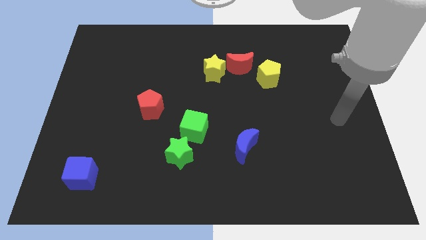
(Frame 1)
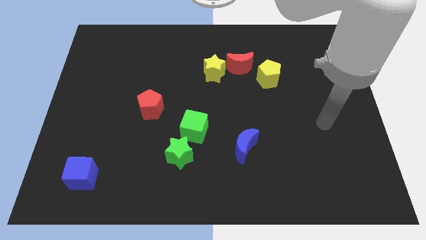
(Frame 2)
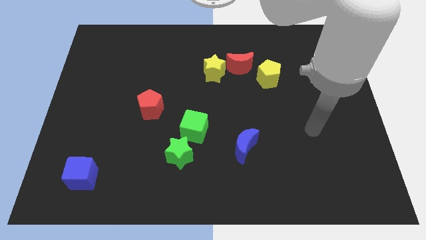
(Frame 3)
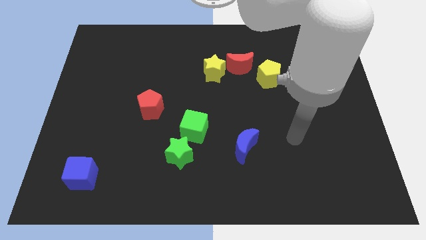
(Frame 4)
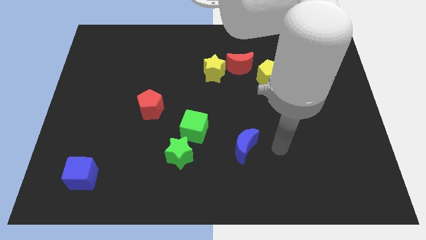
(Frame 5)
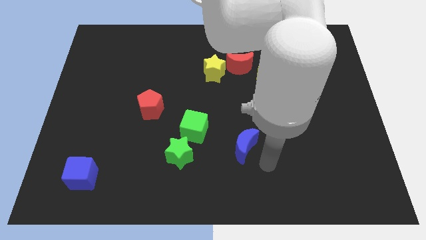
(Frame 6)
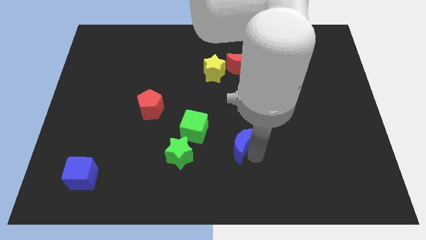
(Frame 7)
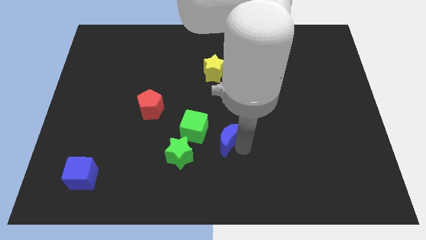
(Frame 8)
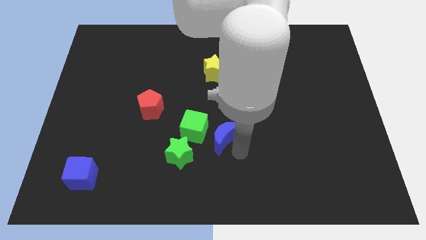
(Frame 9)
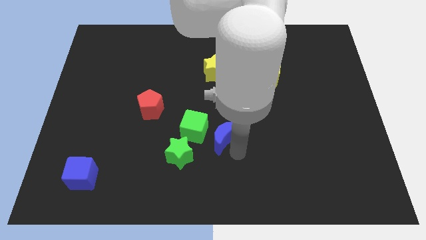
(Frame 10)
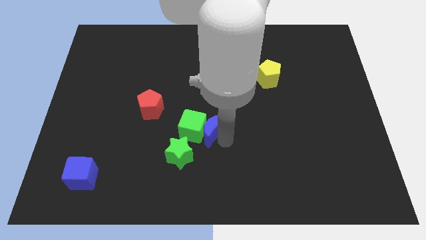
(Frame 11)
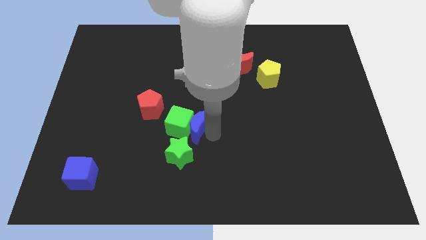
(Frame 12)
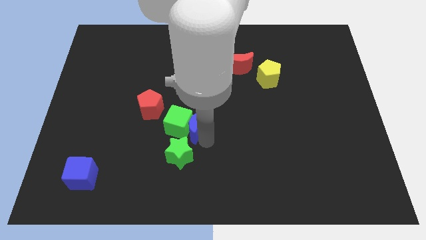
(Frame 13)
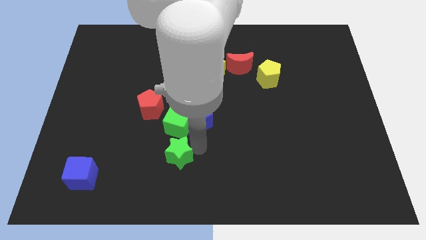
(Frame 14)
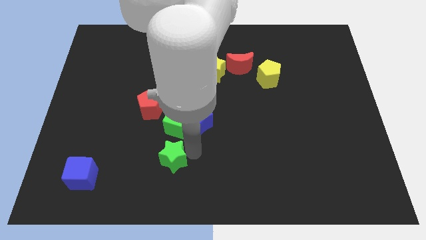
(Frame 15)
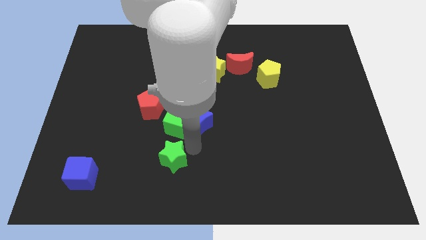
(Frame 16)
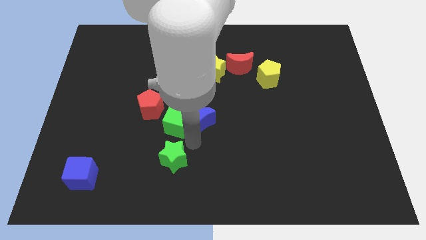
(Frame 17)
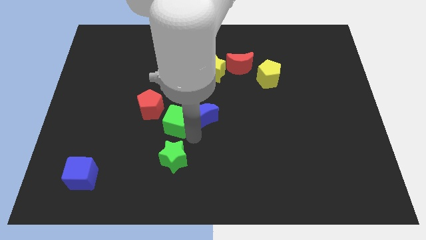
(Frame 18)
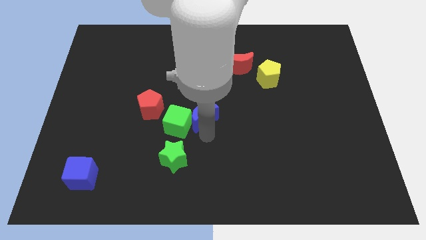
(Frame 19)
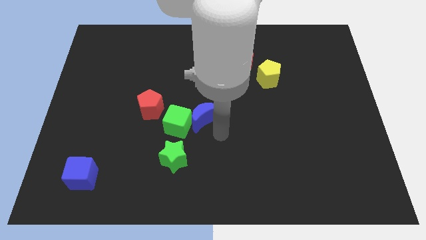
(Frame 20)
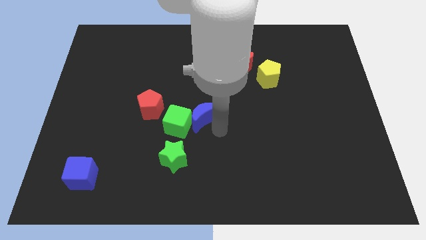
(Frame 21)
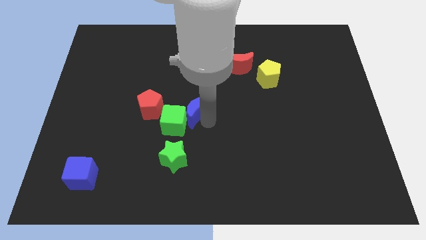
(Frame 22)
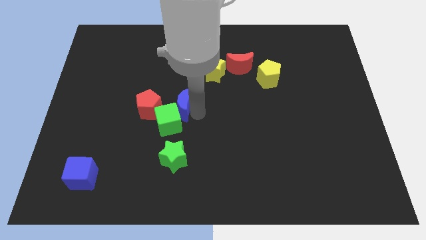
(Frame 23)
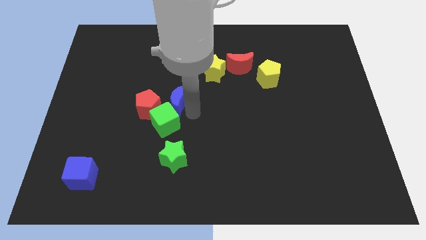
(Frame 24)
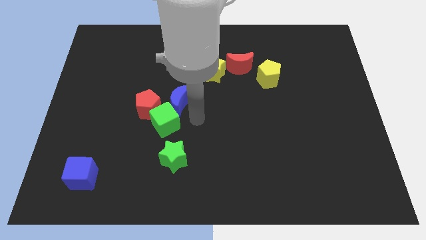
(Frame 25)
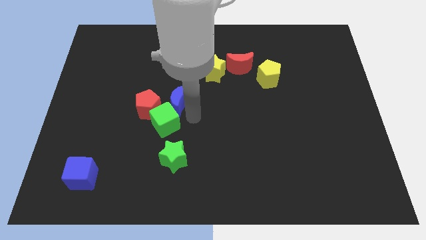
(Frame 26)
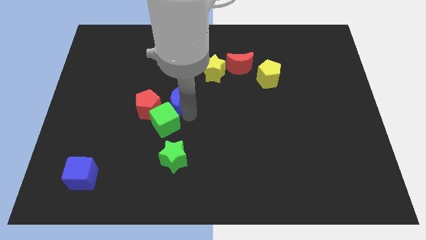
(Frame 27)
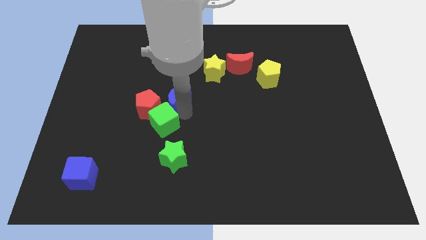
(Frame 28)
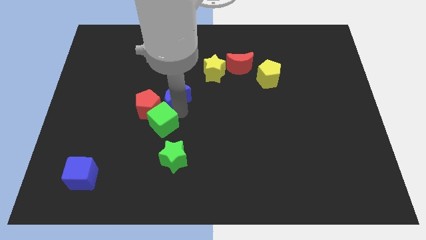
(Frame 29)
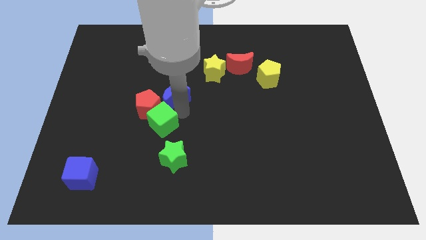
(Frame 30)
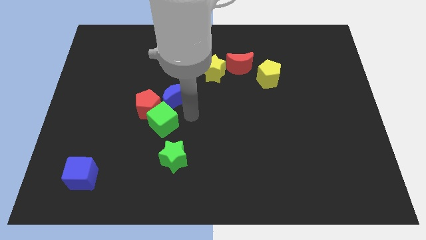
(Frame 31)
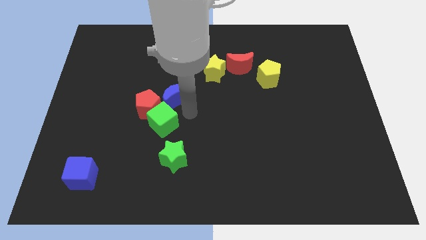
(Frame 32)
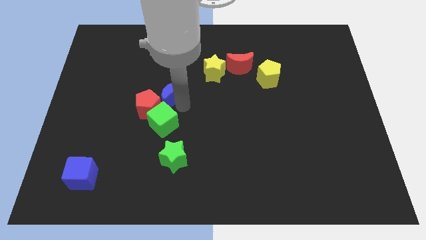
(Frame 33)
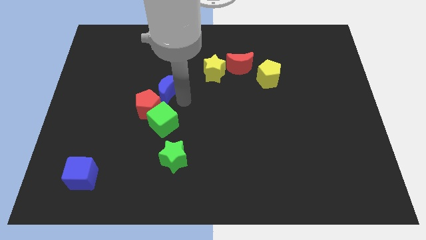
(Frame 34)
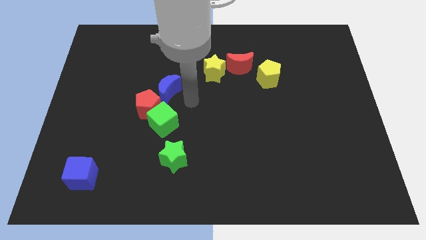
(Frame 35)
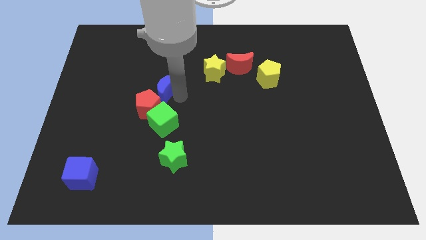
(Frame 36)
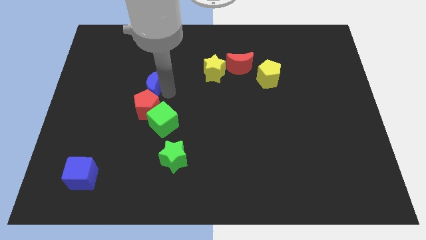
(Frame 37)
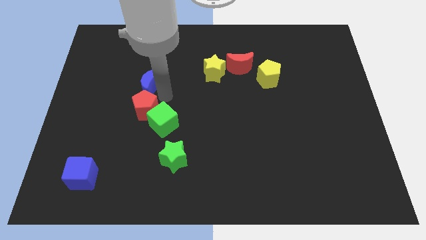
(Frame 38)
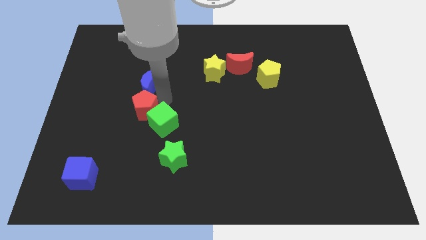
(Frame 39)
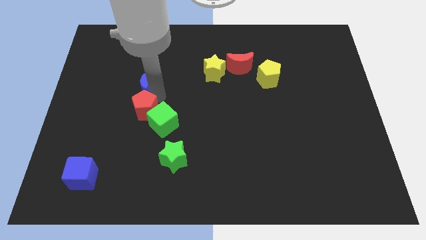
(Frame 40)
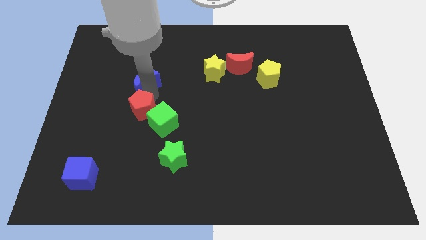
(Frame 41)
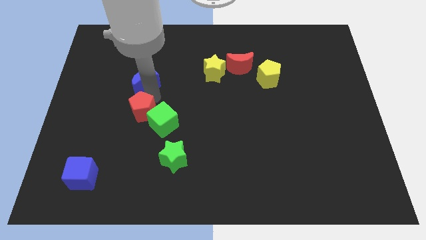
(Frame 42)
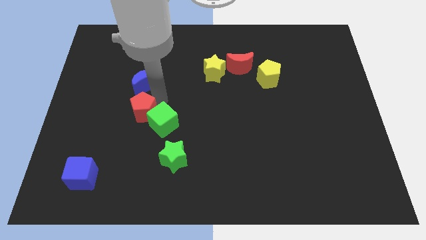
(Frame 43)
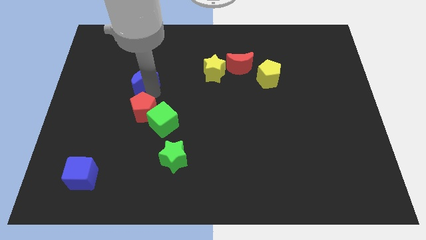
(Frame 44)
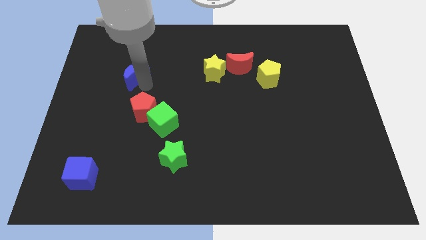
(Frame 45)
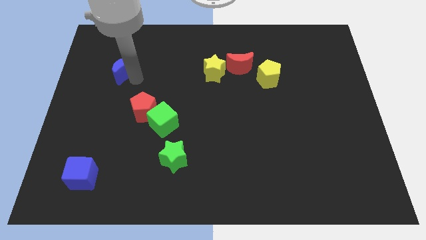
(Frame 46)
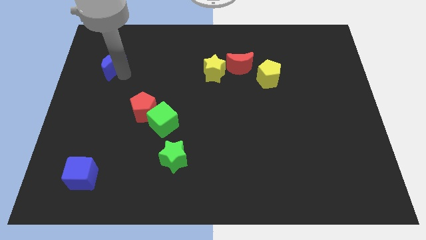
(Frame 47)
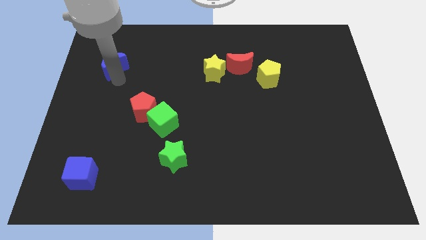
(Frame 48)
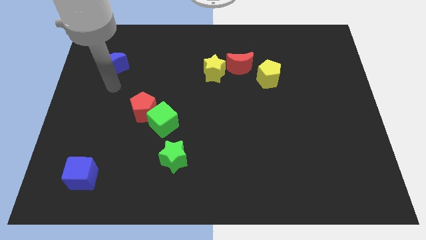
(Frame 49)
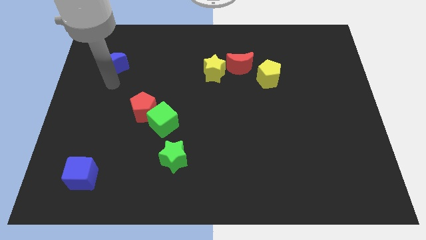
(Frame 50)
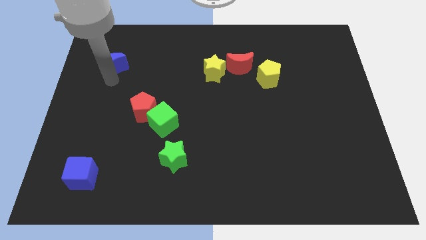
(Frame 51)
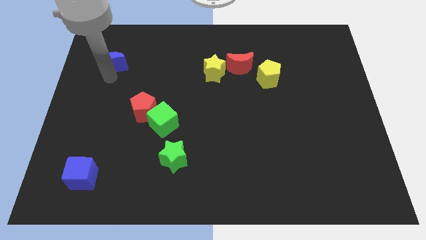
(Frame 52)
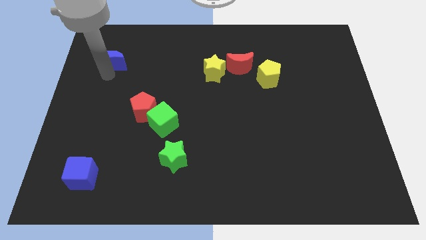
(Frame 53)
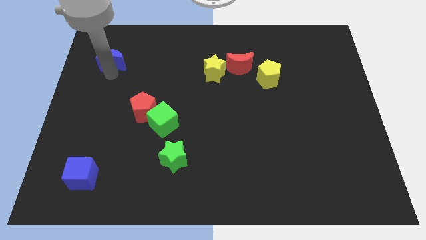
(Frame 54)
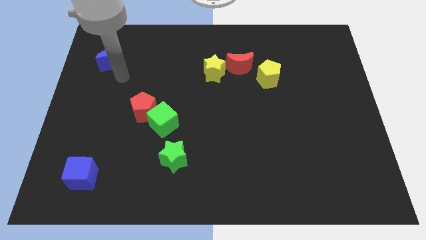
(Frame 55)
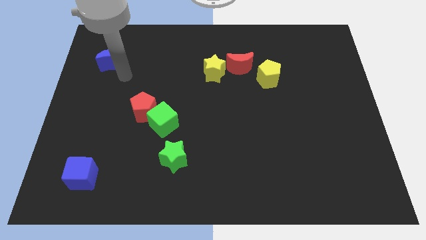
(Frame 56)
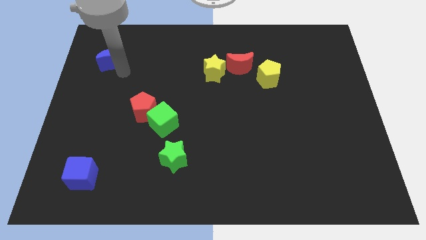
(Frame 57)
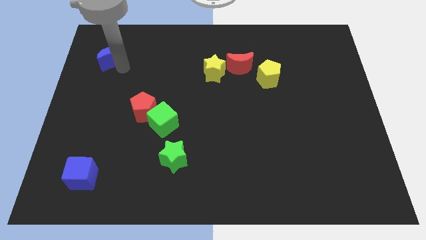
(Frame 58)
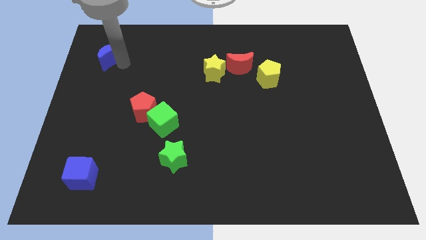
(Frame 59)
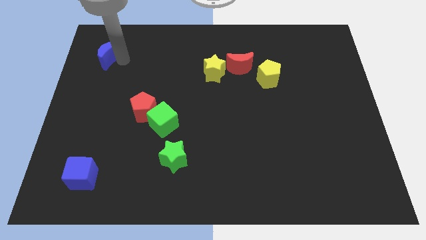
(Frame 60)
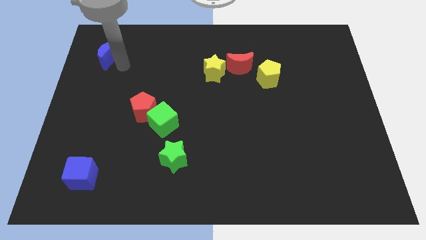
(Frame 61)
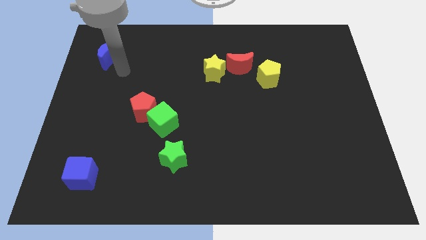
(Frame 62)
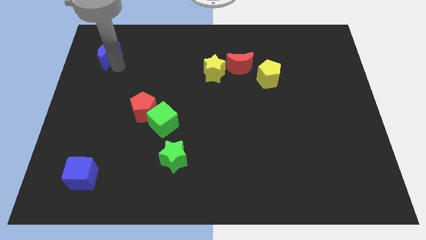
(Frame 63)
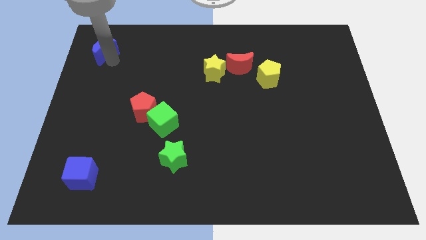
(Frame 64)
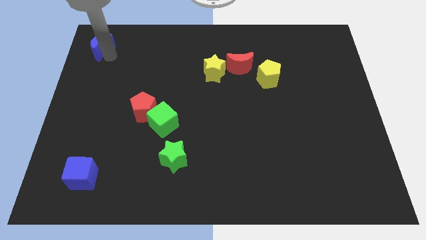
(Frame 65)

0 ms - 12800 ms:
move the blue moon to the top left of the board

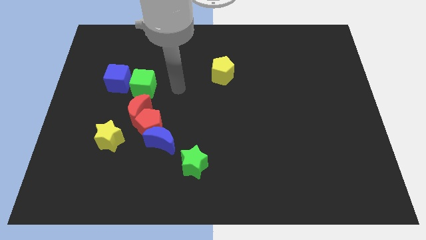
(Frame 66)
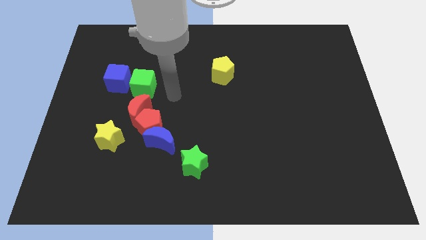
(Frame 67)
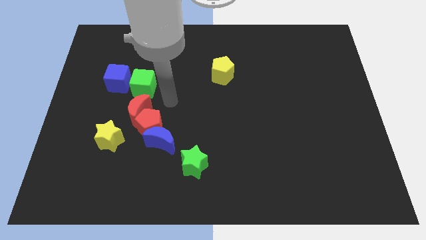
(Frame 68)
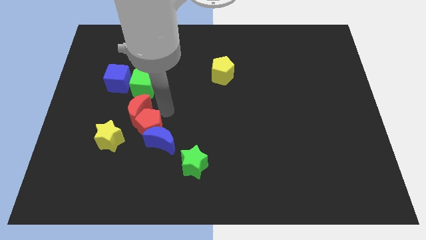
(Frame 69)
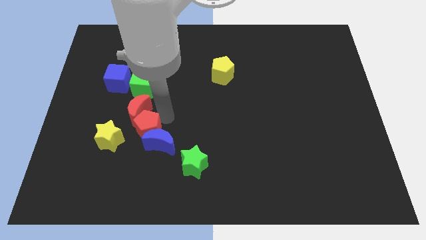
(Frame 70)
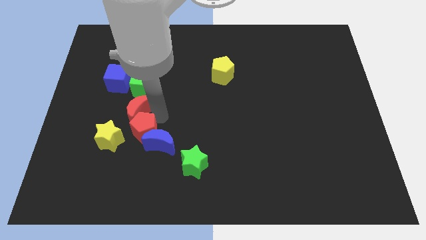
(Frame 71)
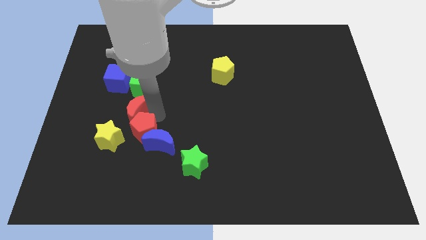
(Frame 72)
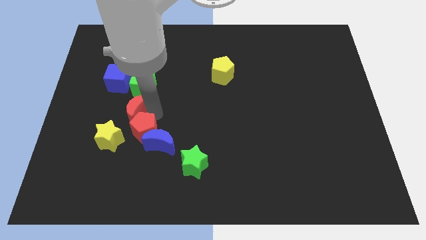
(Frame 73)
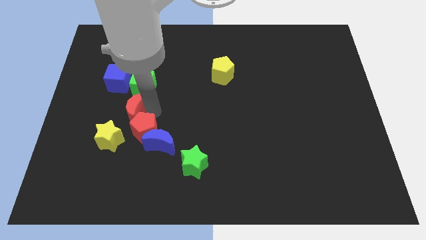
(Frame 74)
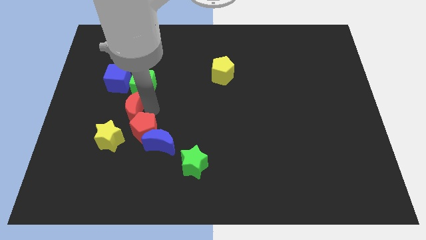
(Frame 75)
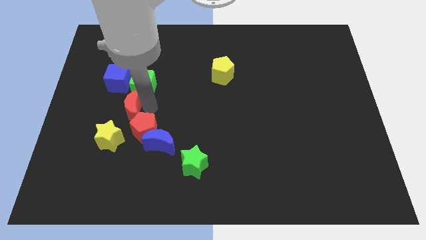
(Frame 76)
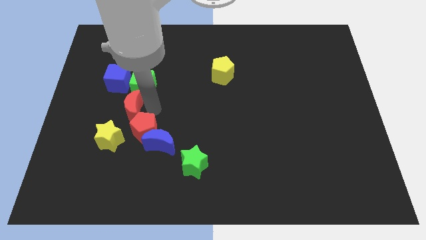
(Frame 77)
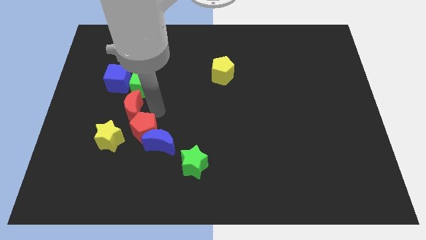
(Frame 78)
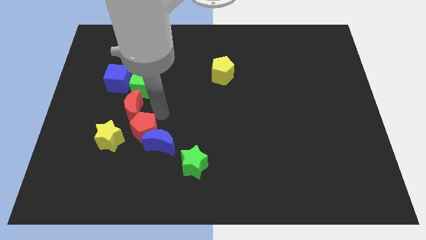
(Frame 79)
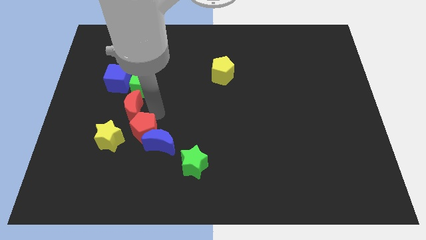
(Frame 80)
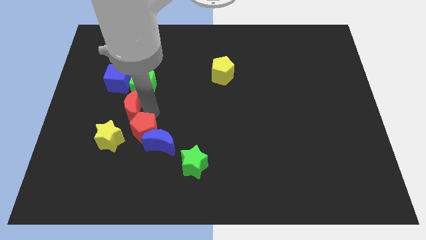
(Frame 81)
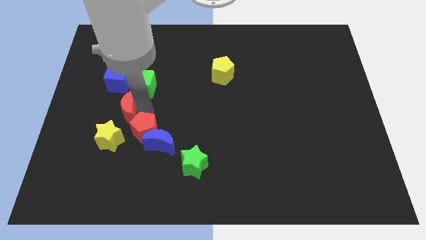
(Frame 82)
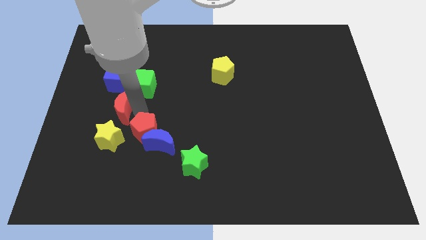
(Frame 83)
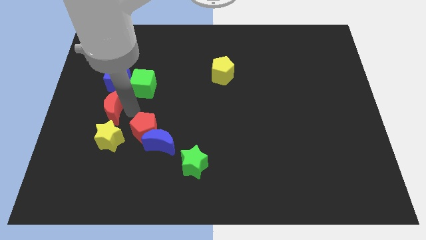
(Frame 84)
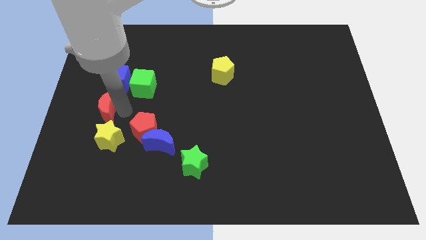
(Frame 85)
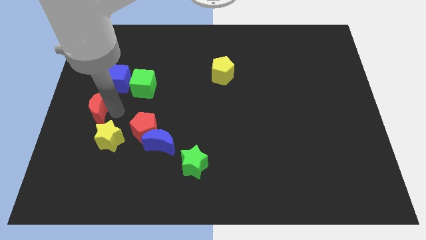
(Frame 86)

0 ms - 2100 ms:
put the red moon to the left side
